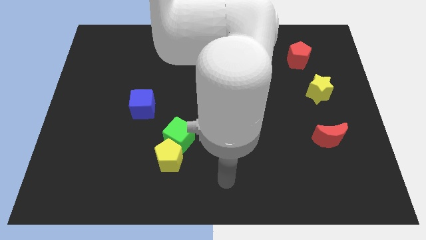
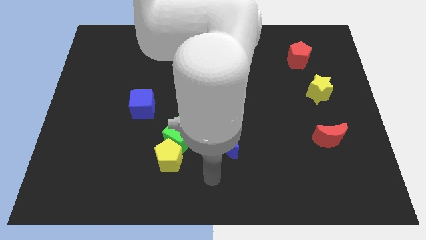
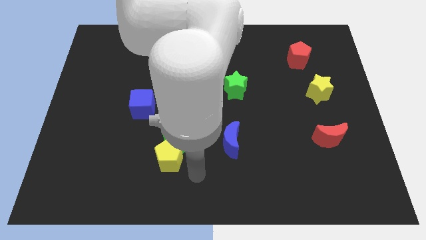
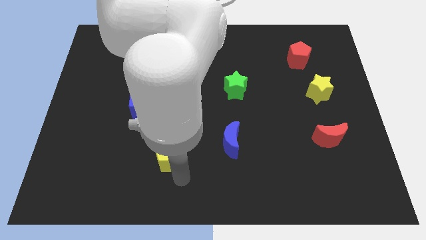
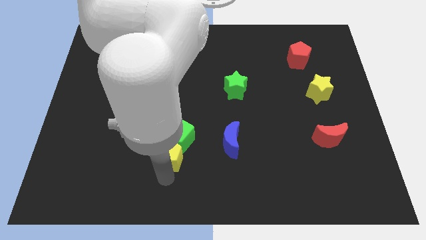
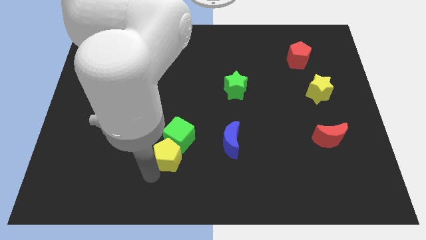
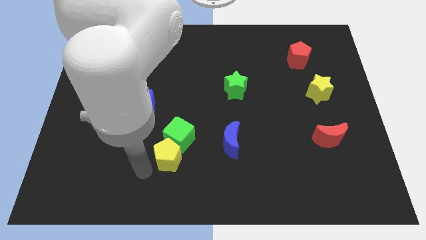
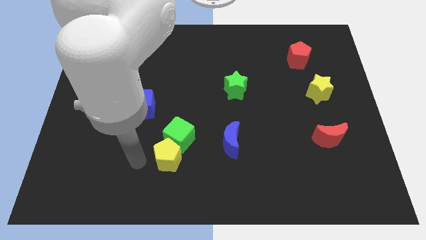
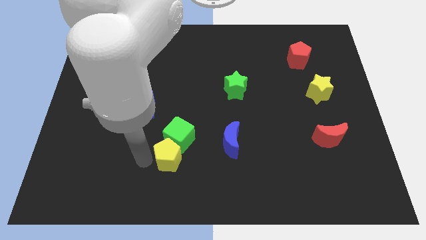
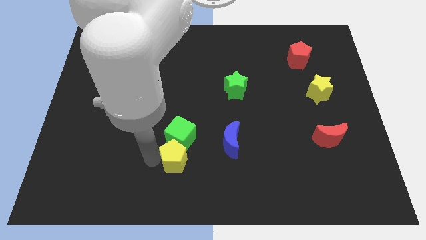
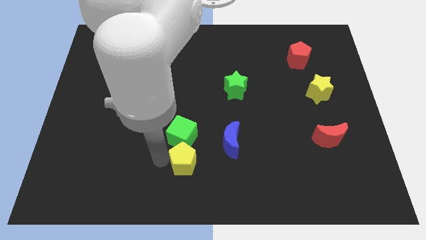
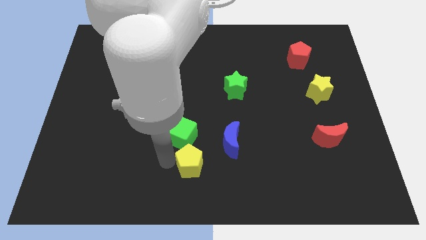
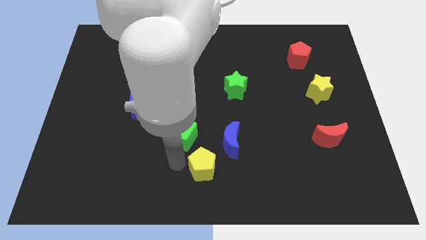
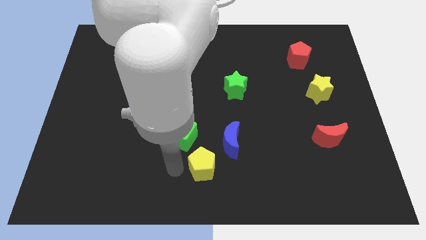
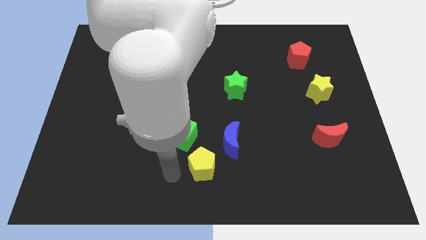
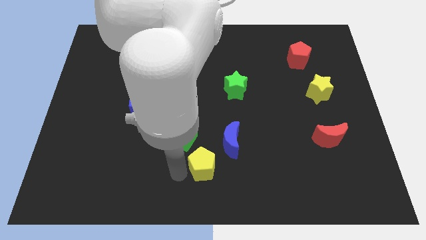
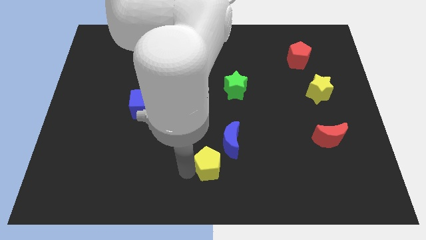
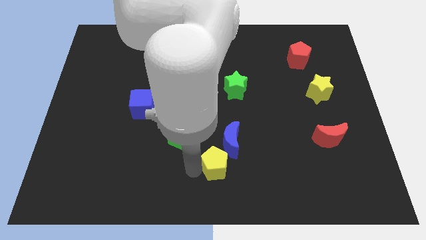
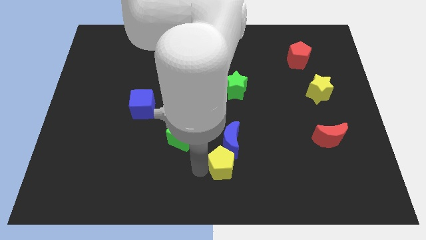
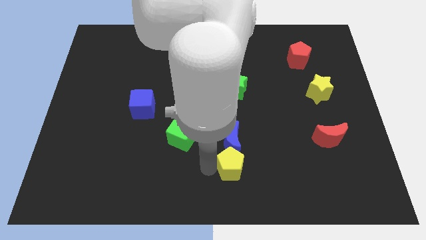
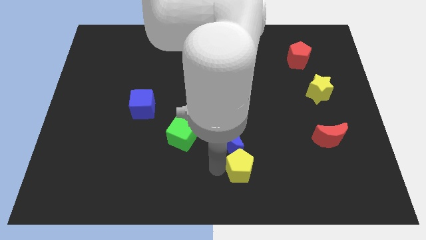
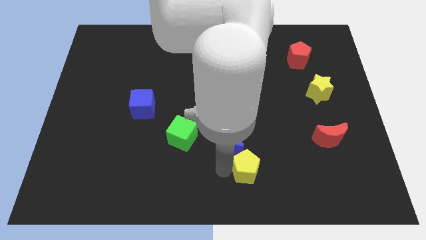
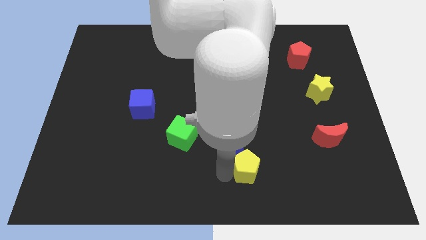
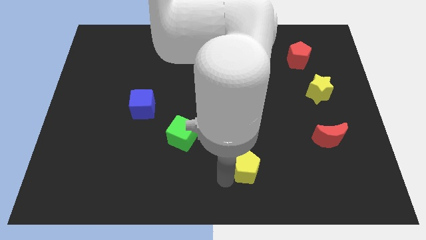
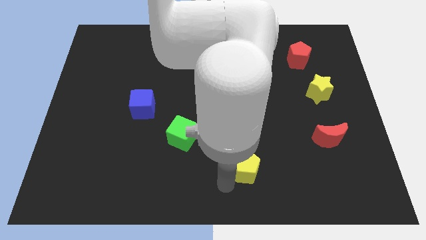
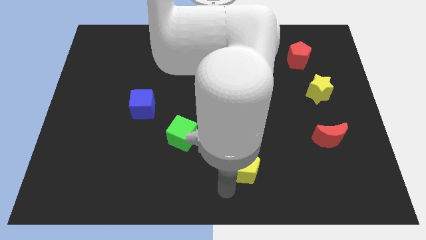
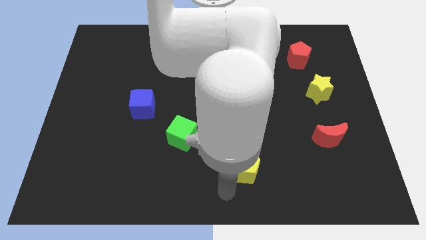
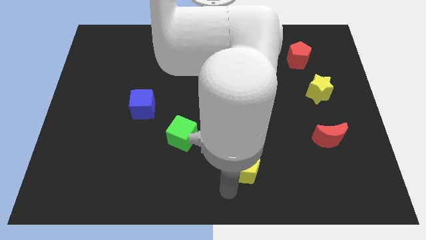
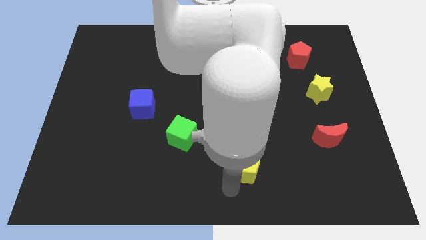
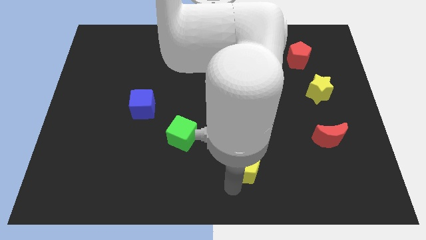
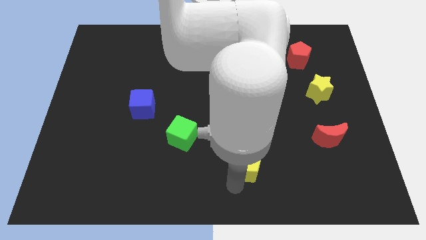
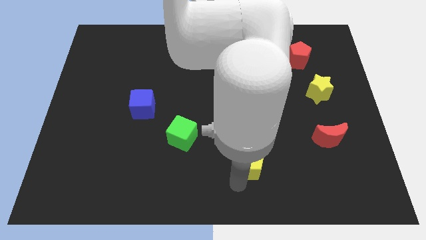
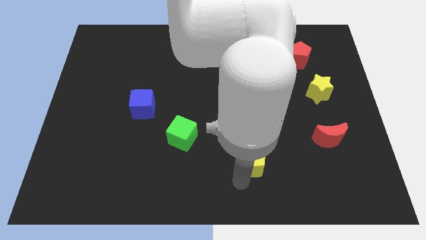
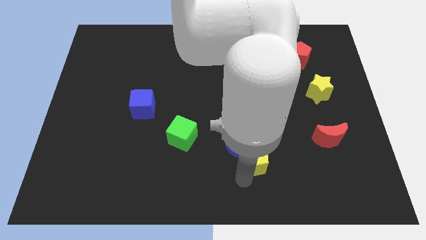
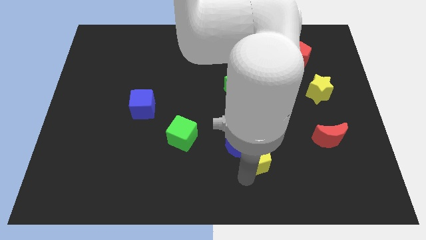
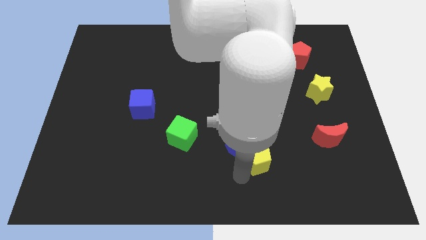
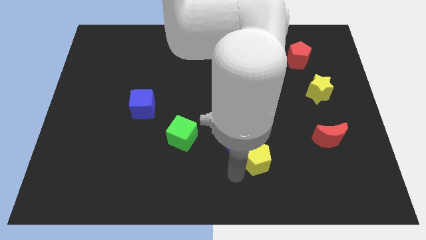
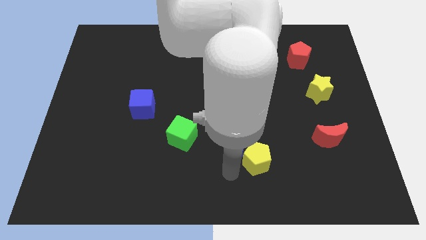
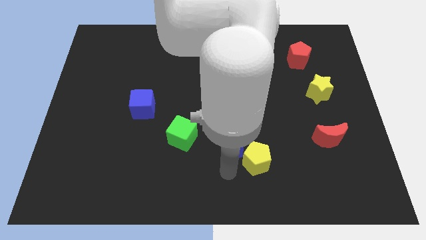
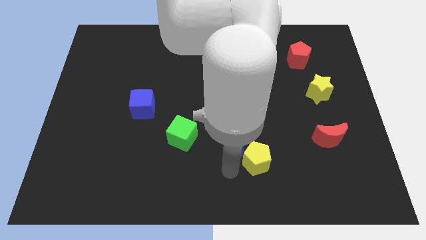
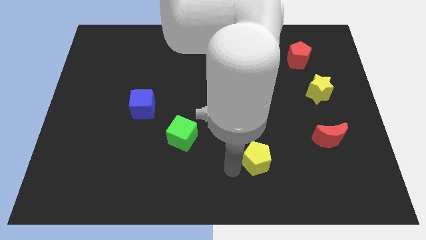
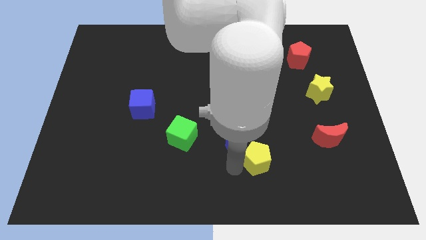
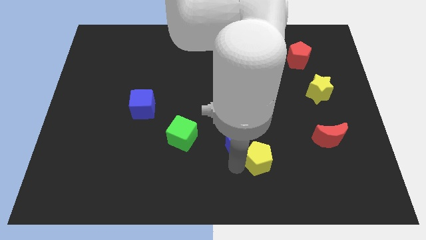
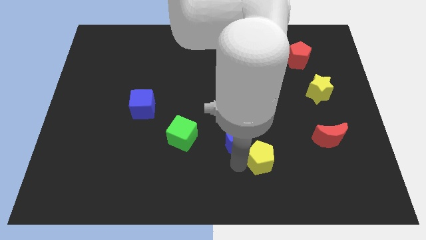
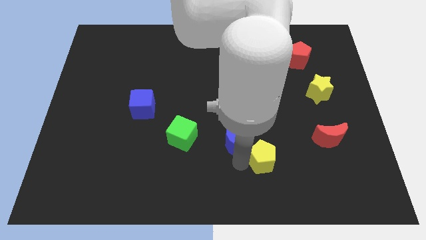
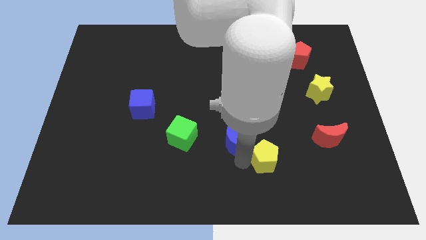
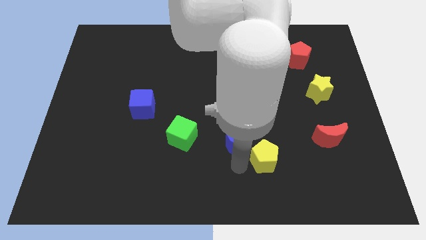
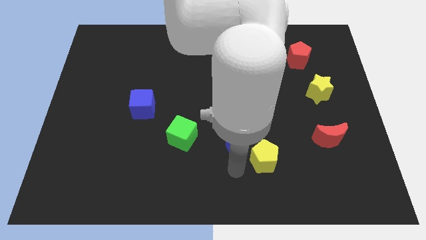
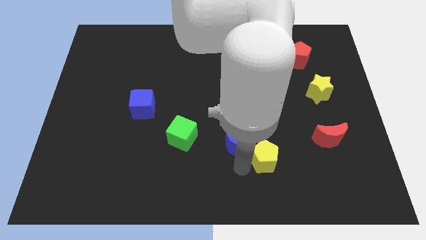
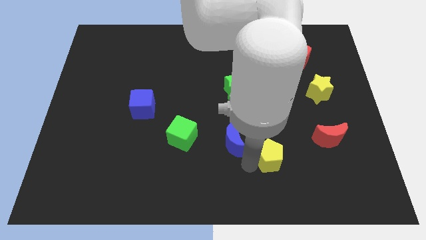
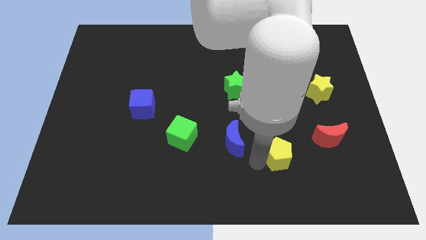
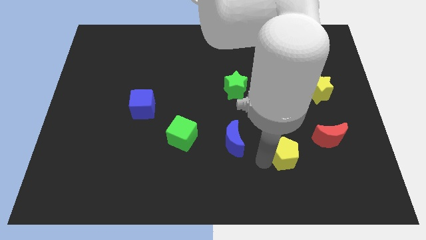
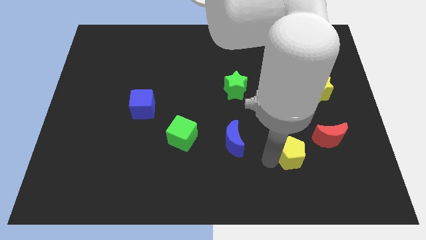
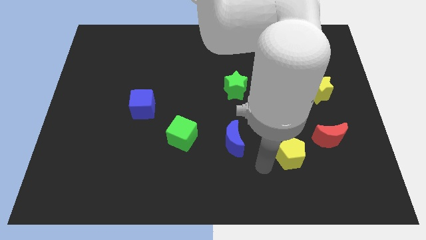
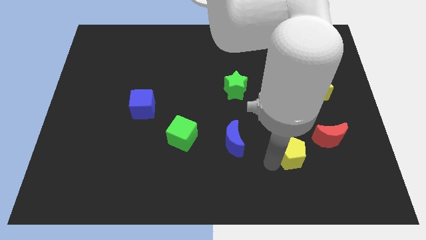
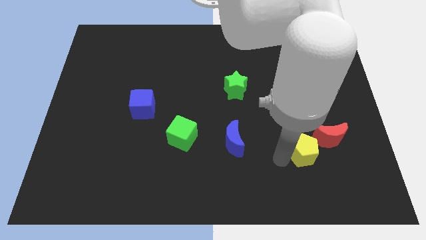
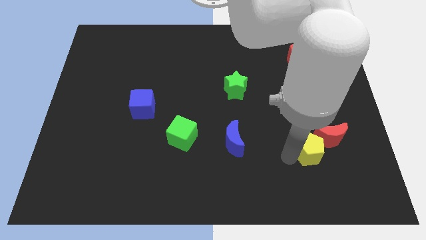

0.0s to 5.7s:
push the yellow pentagon next to the red moon
